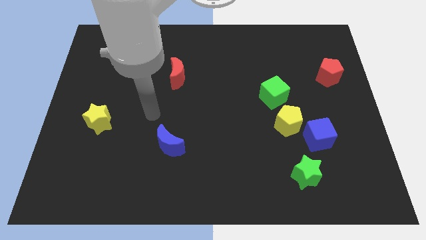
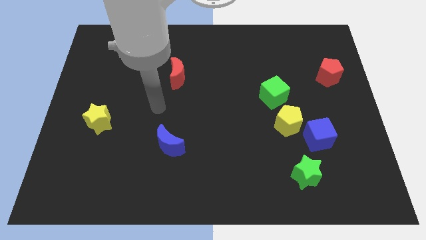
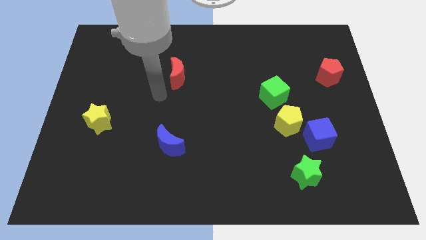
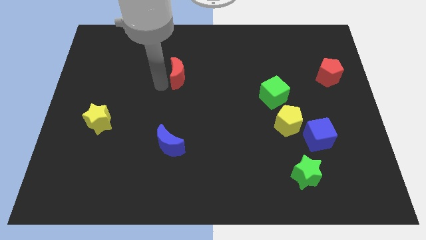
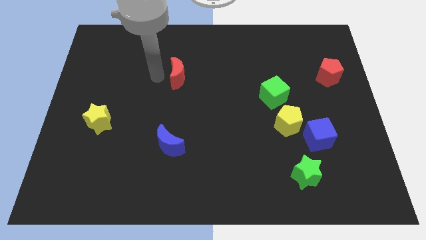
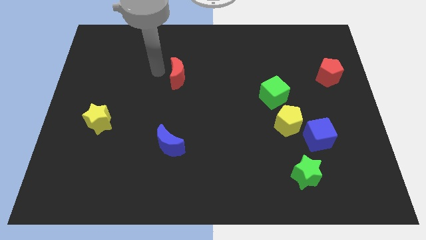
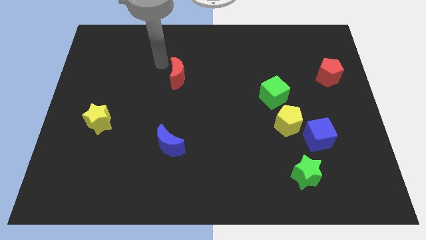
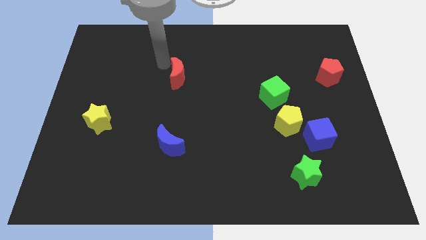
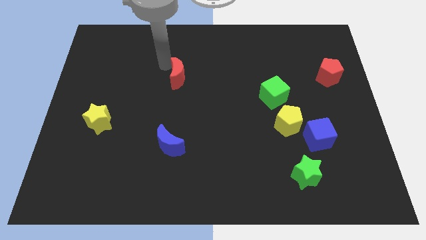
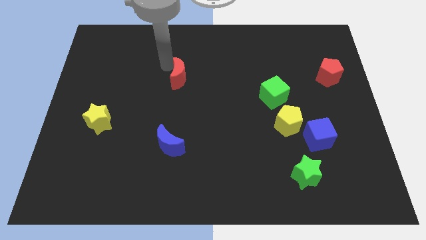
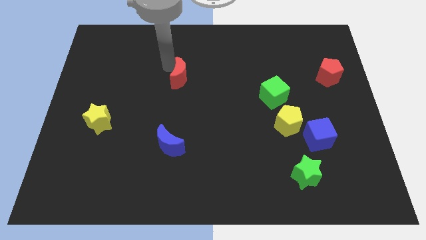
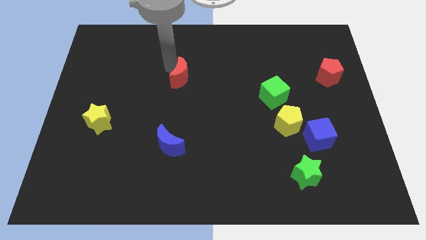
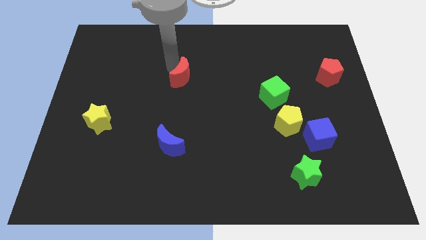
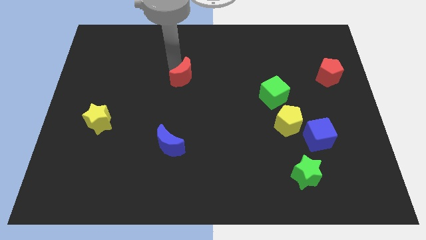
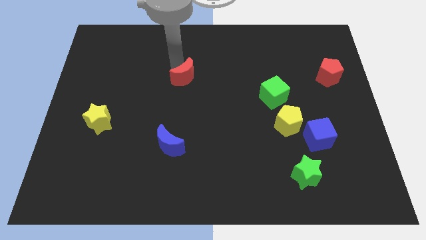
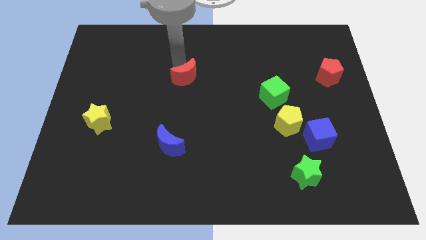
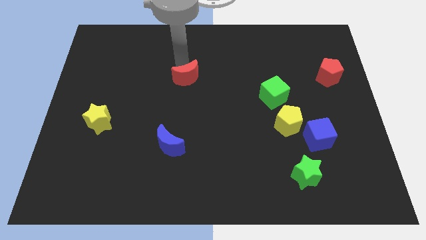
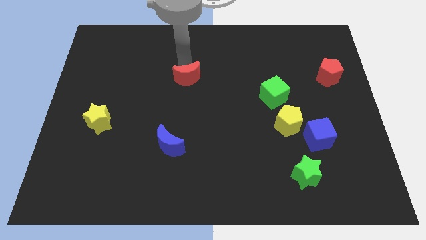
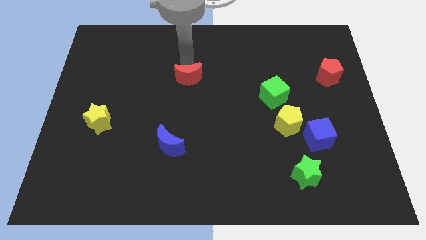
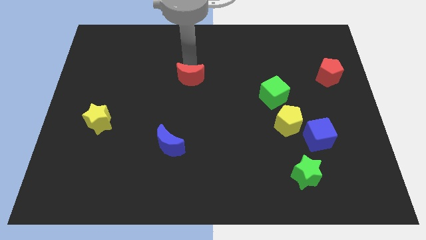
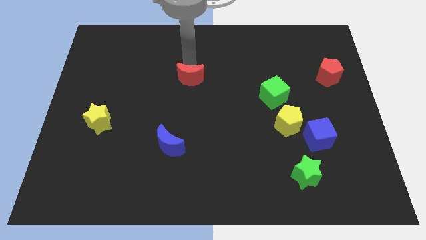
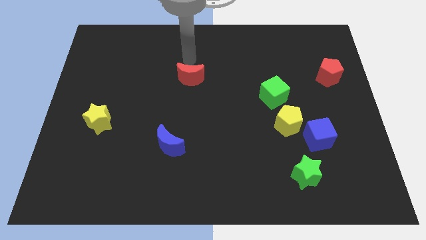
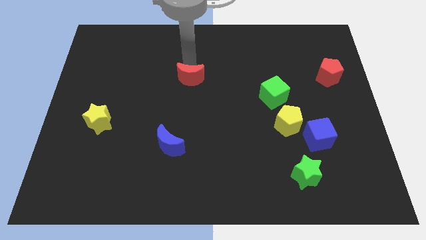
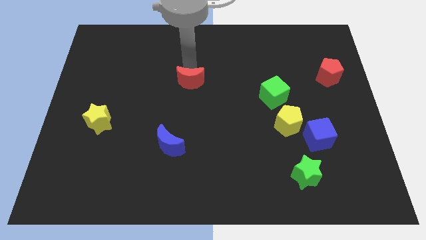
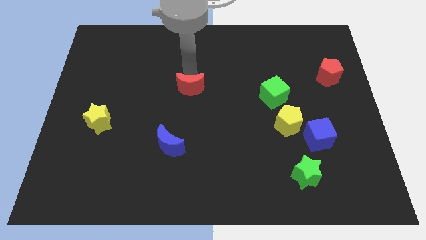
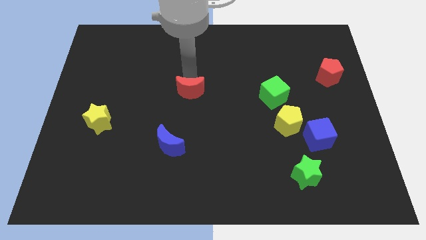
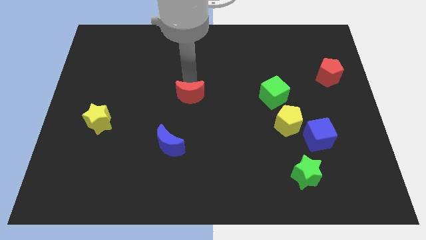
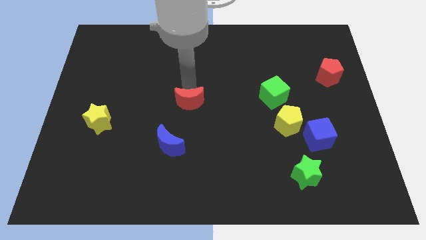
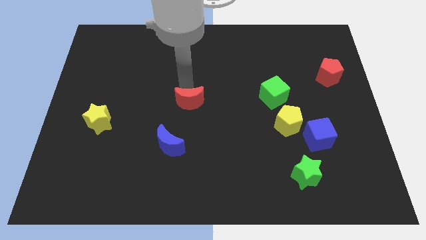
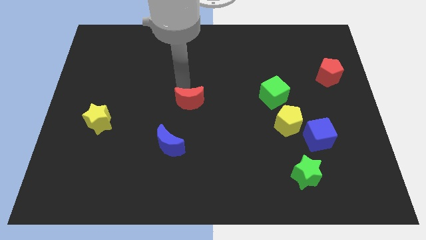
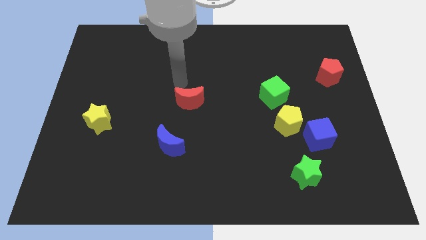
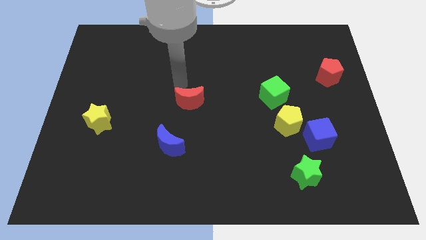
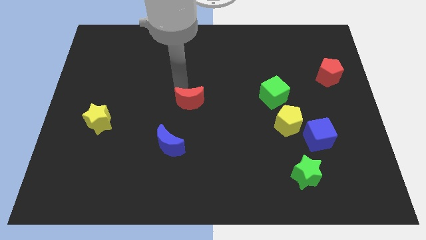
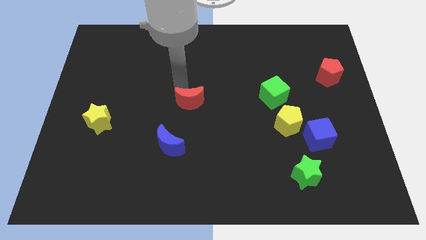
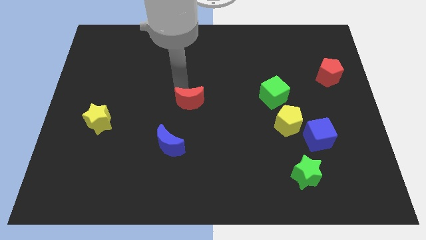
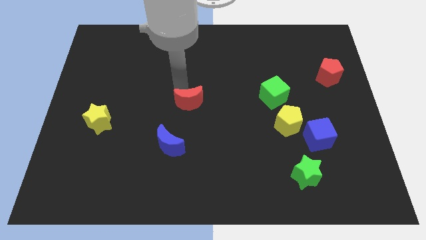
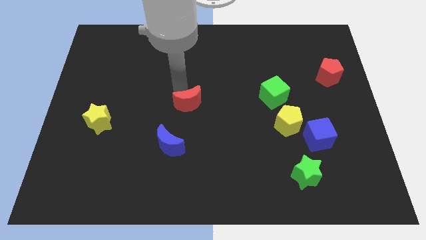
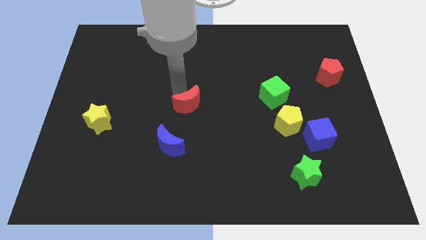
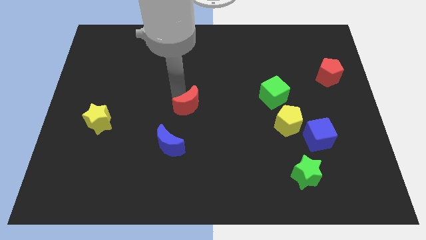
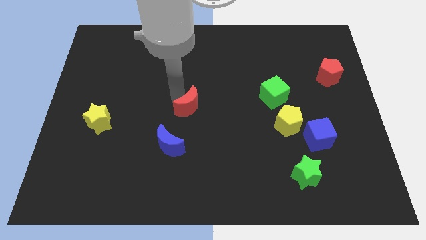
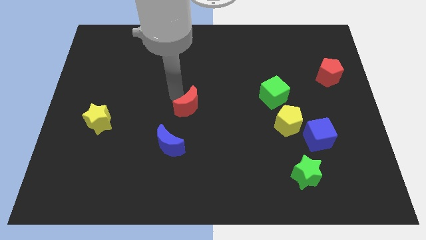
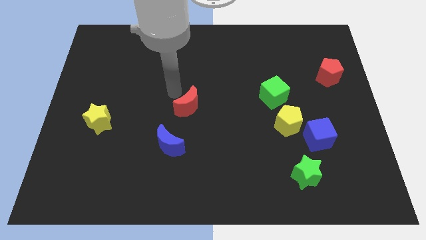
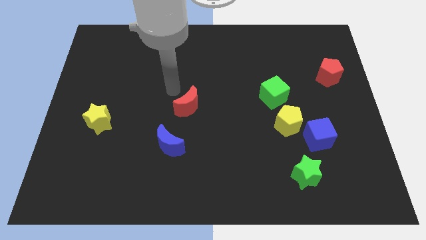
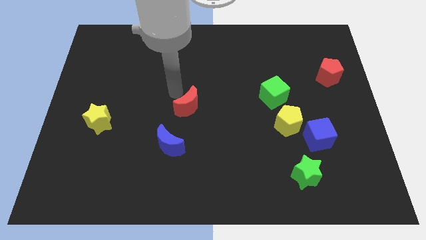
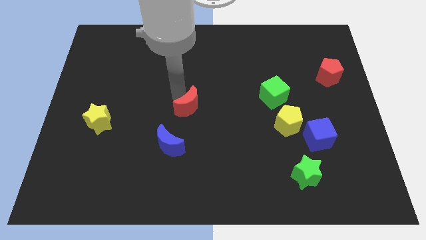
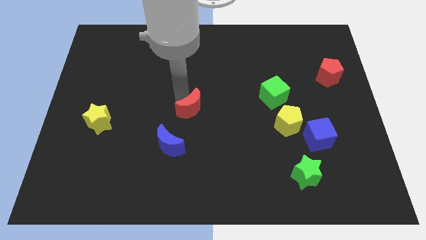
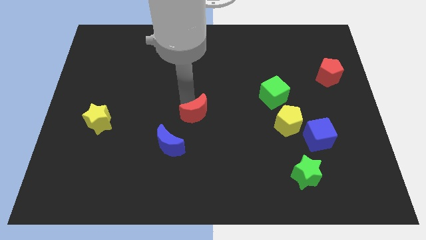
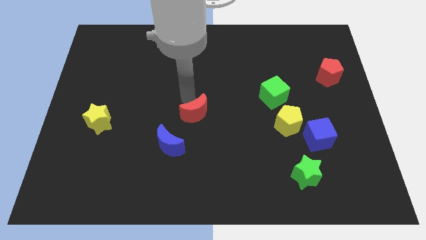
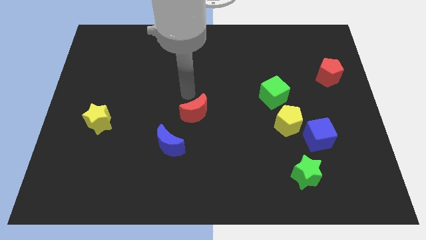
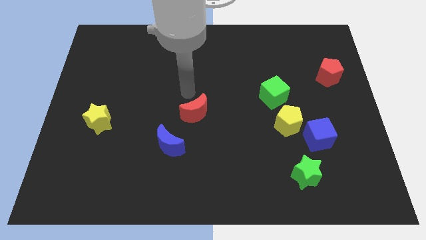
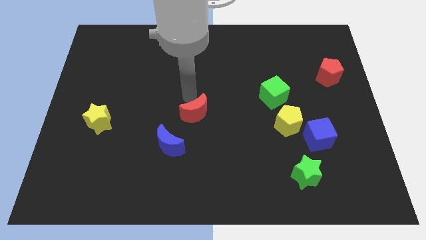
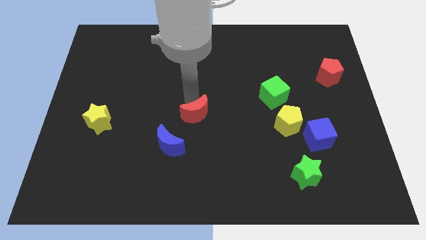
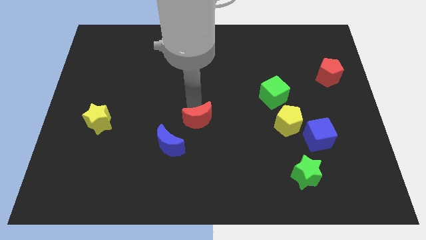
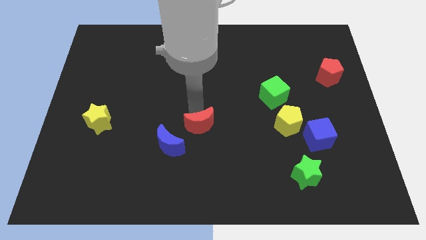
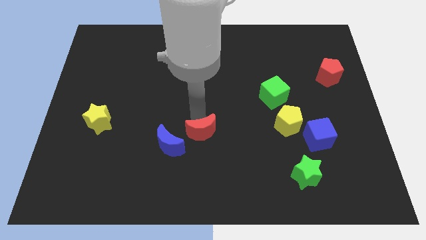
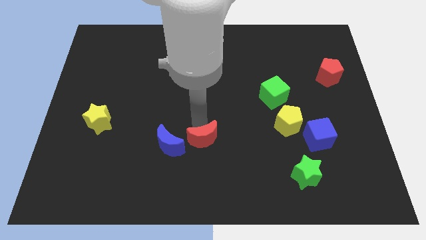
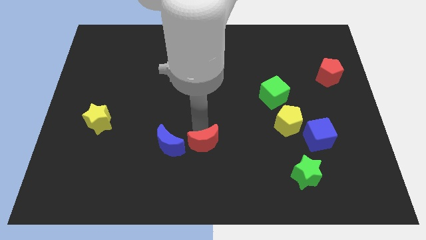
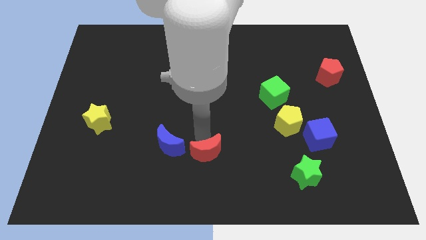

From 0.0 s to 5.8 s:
slide the red moon to the bottom side

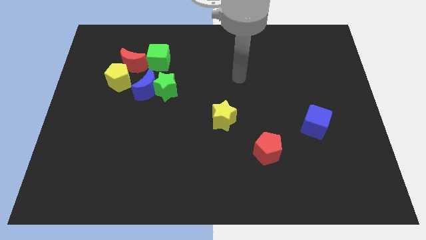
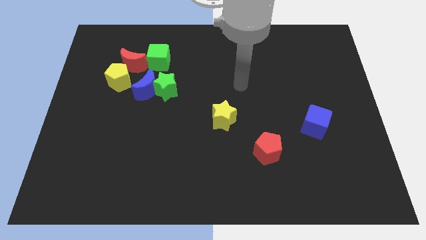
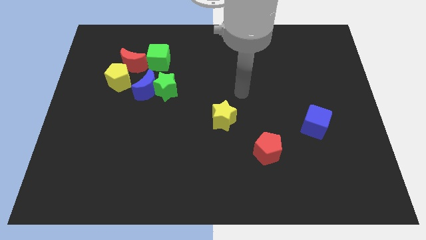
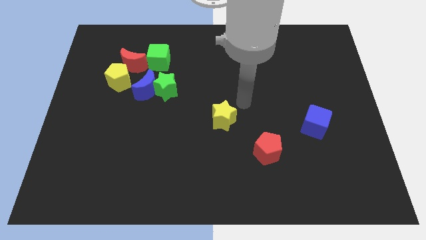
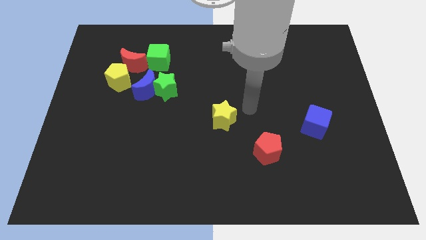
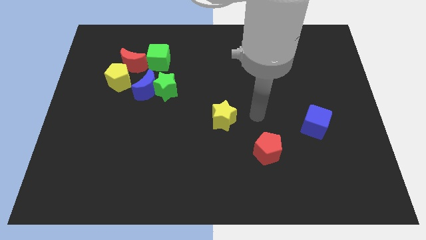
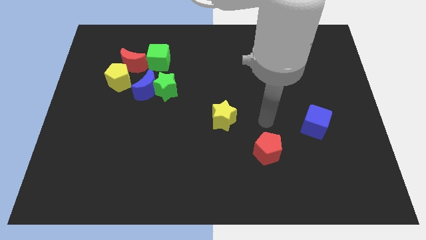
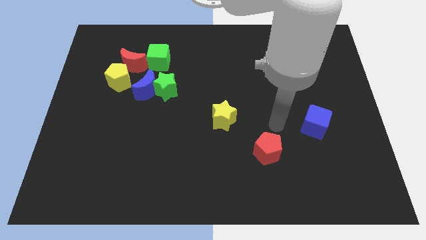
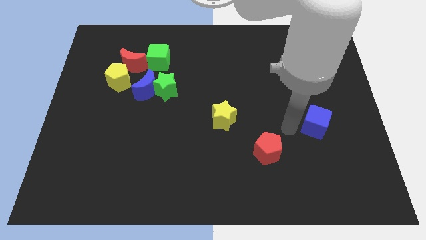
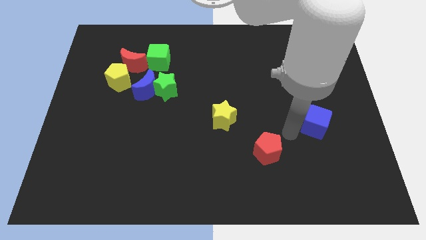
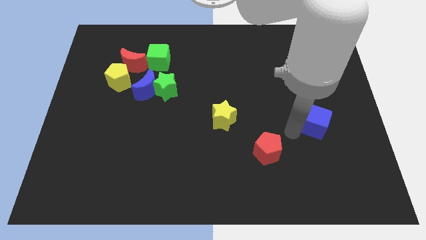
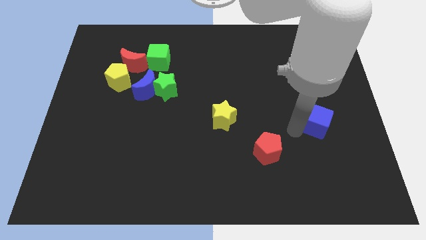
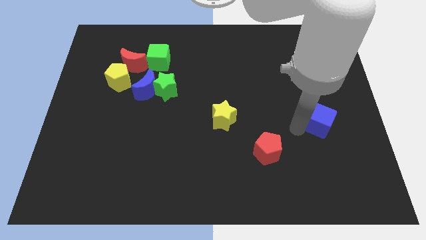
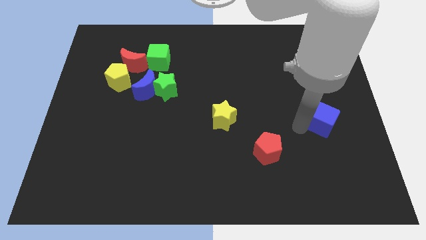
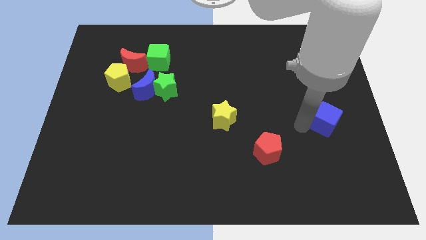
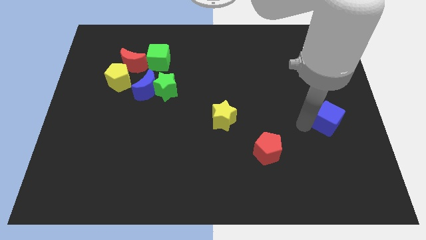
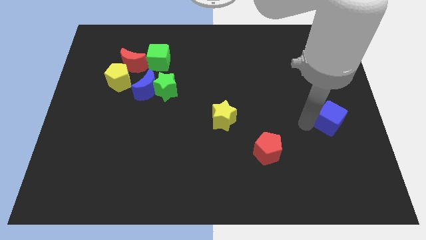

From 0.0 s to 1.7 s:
put the blue cube to the right side
